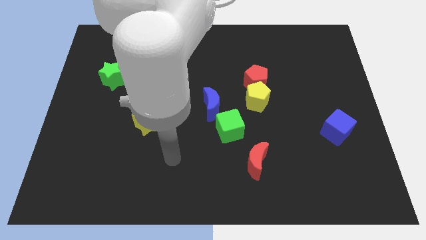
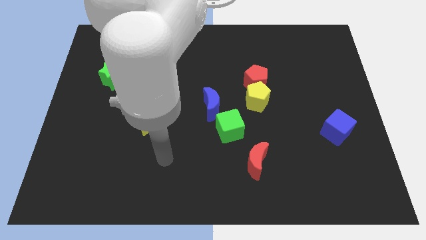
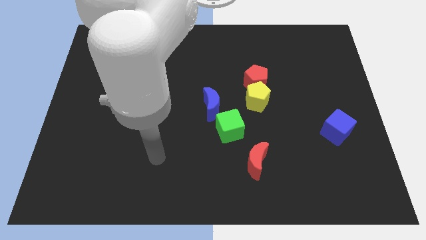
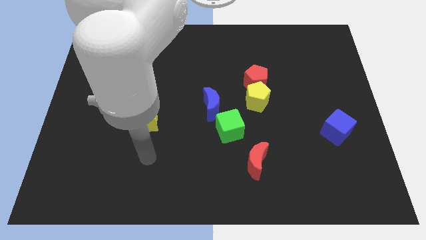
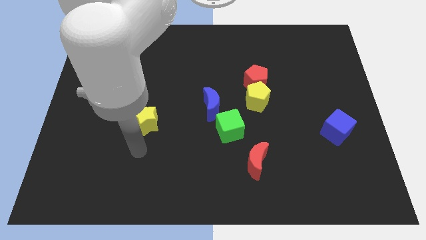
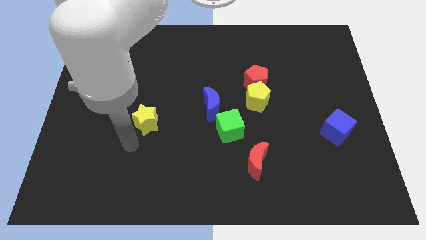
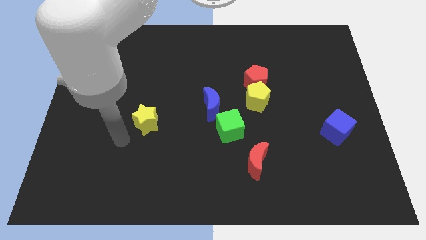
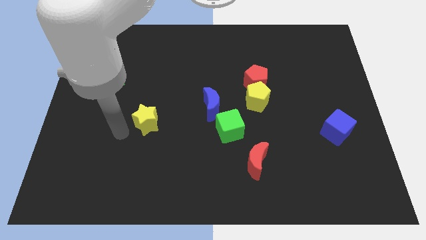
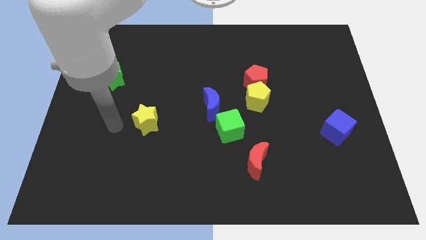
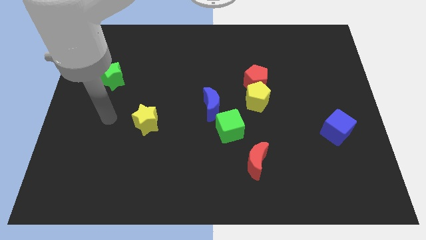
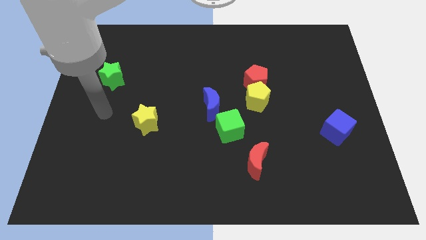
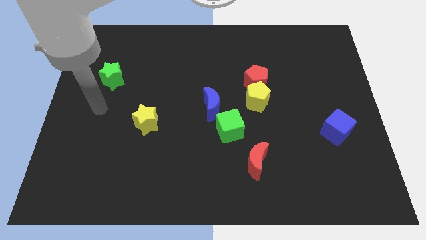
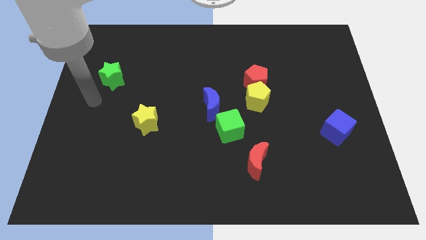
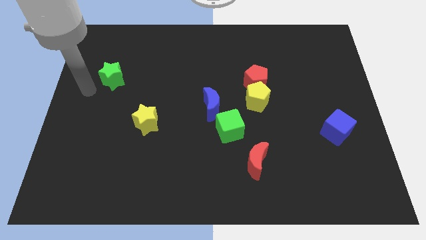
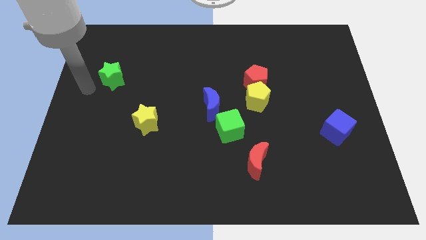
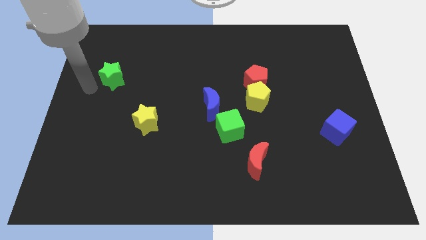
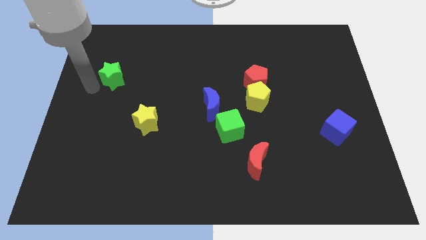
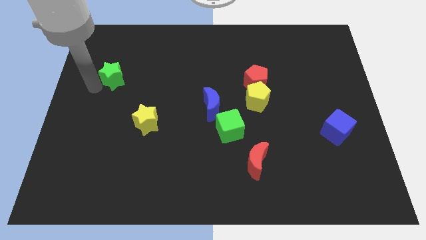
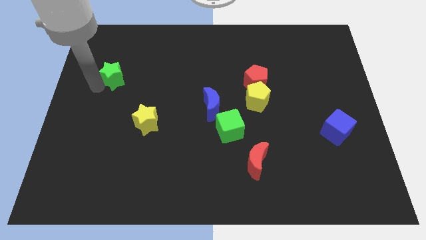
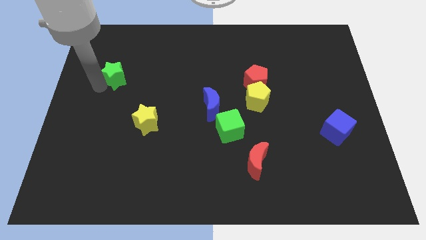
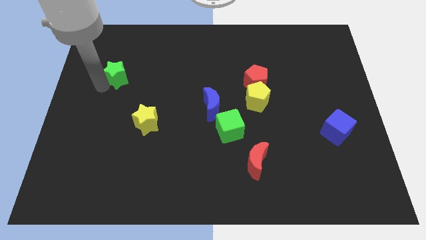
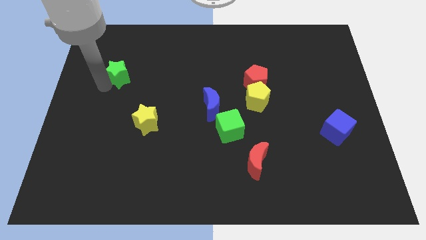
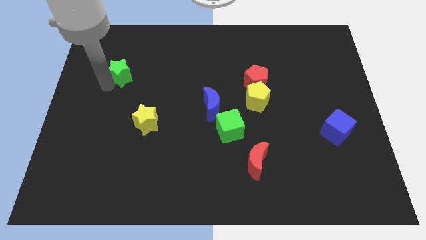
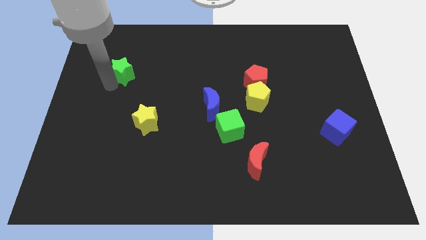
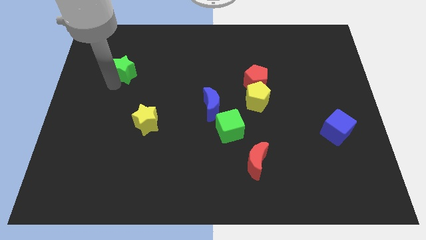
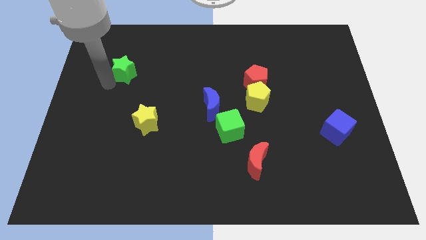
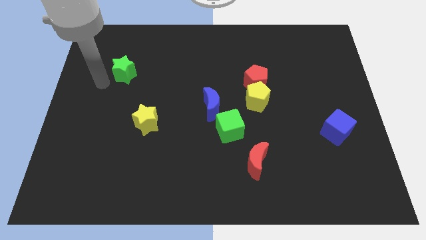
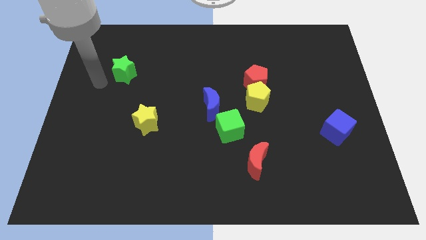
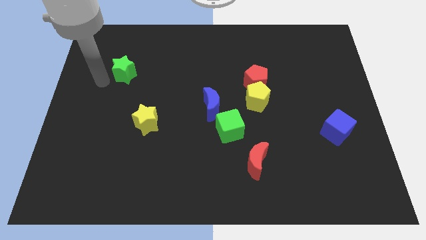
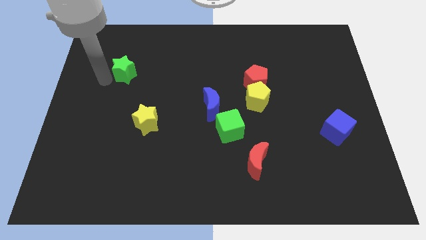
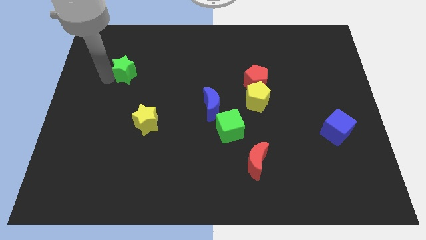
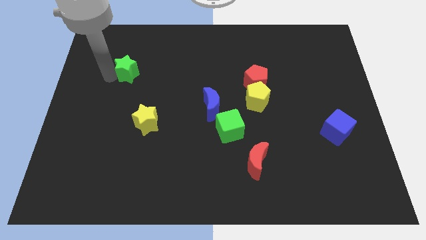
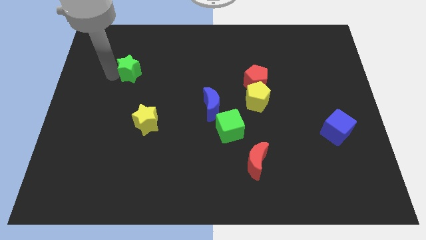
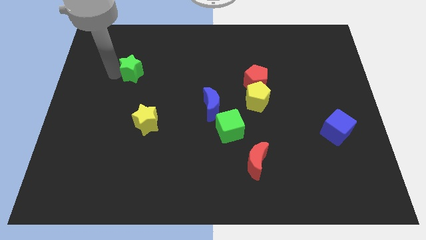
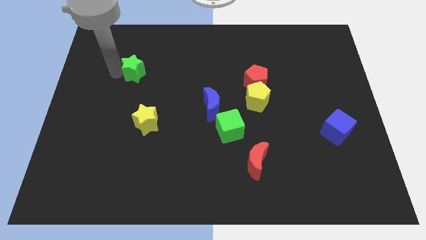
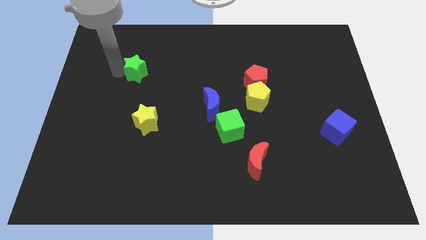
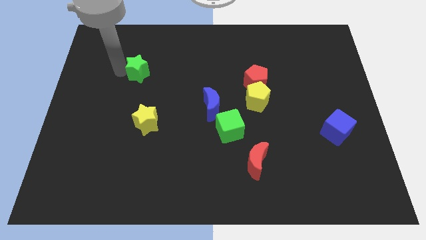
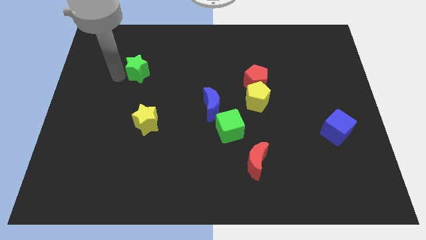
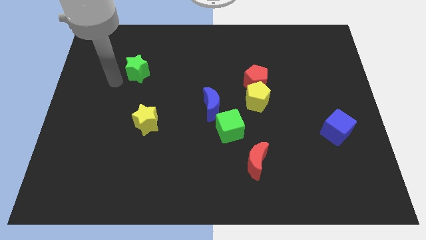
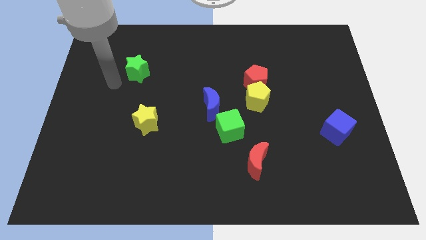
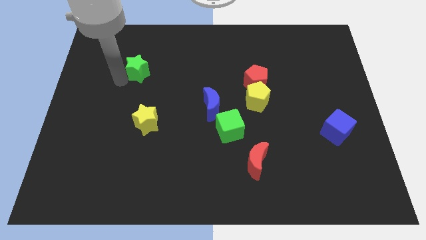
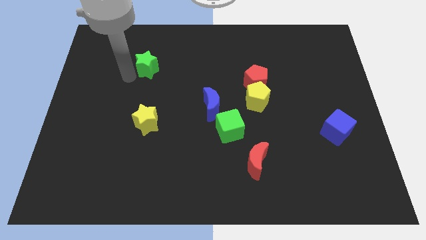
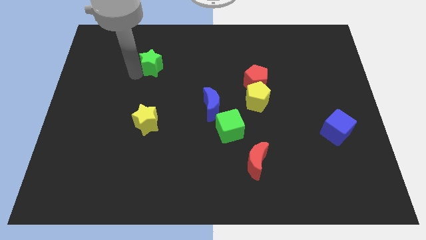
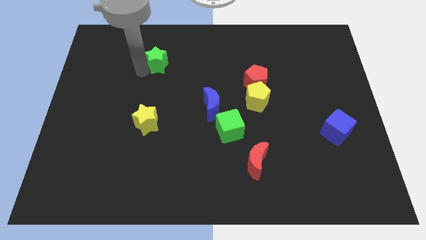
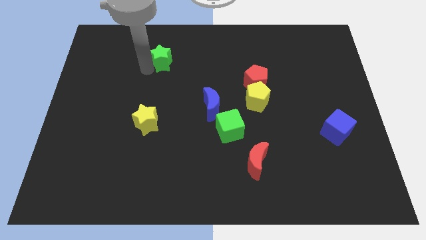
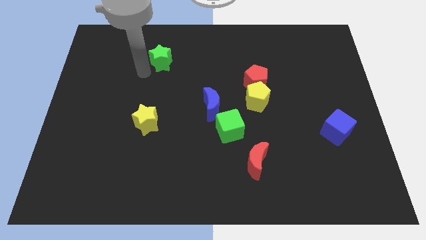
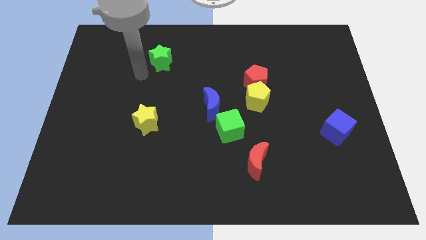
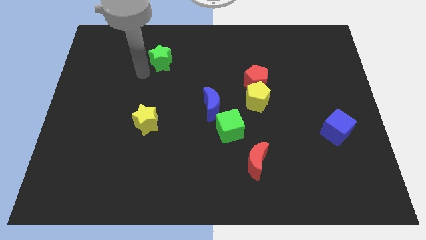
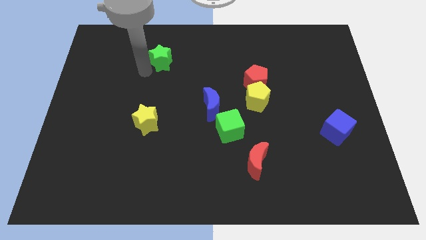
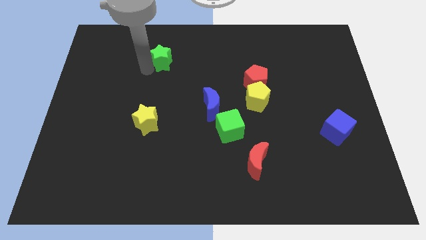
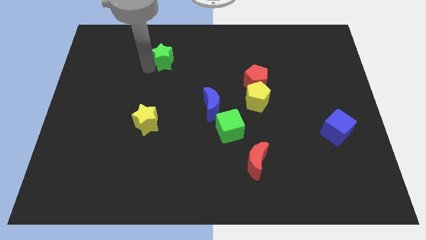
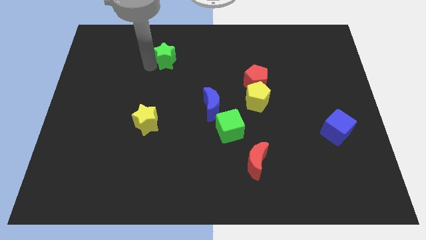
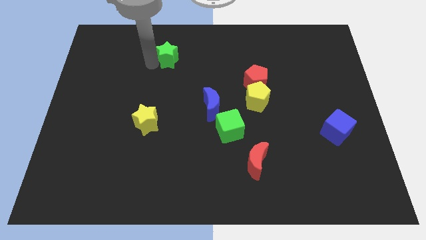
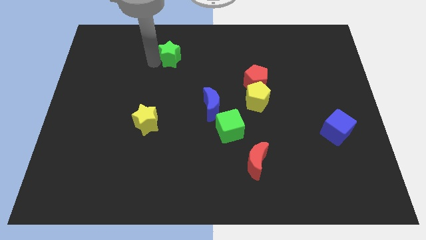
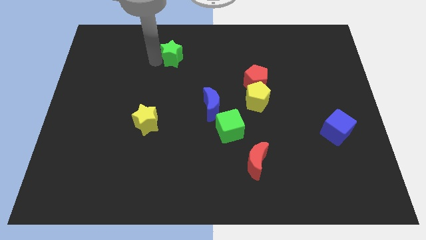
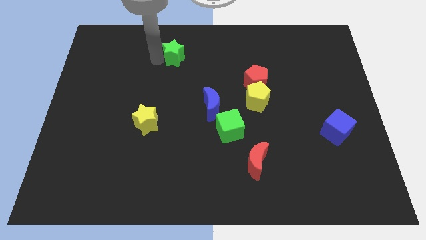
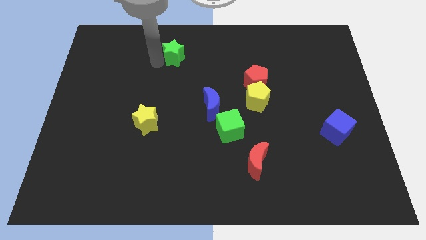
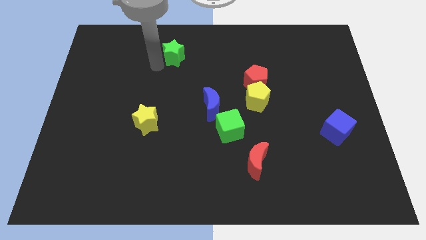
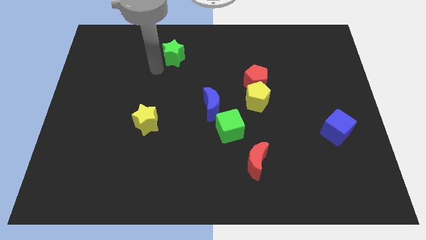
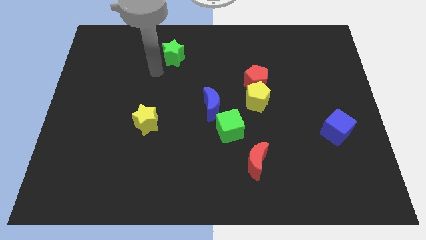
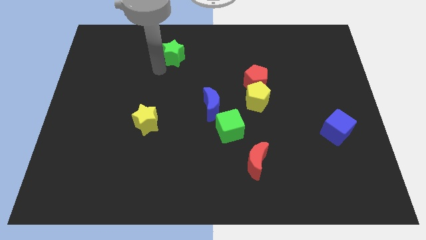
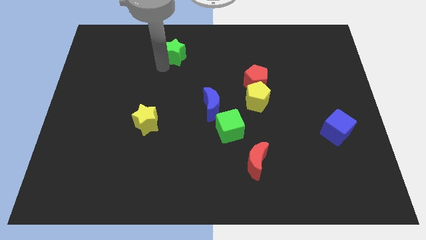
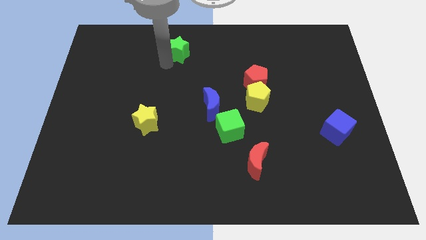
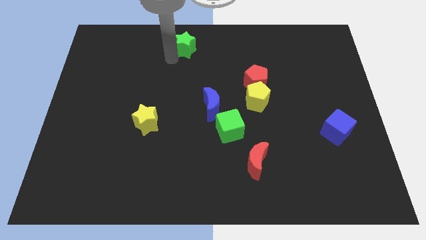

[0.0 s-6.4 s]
slide the green star to the top side
